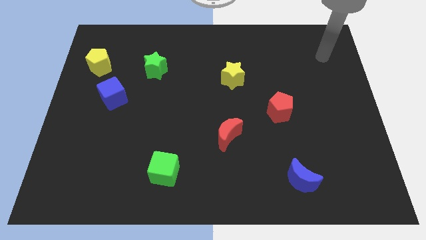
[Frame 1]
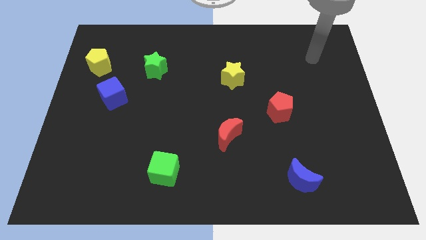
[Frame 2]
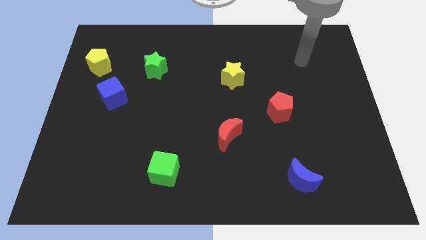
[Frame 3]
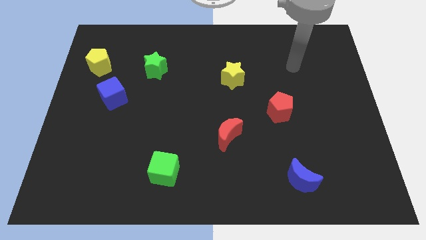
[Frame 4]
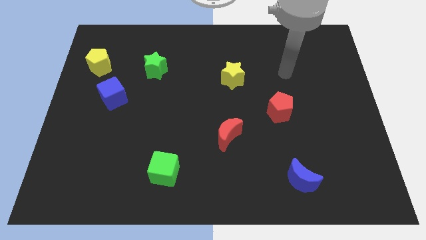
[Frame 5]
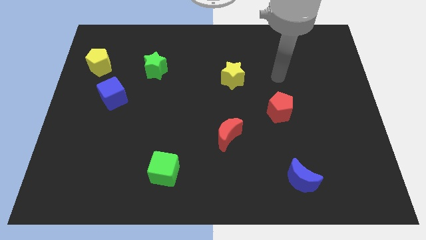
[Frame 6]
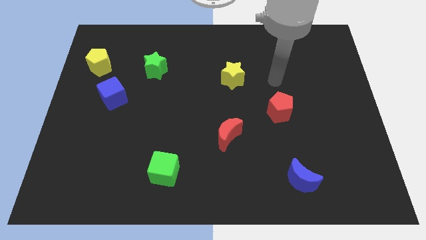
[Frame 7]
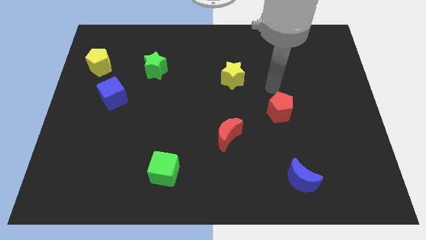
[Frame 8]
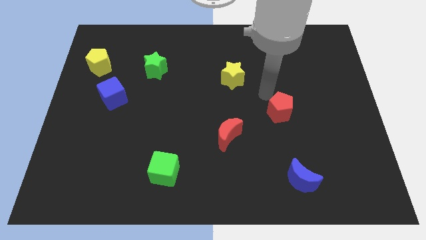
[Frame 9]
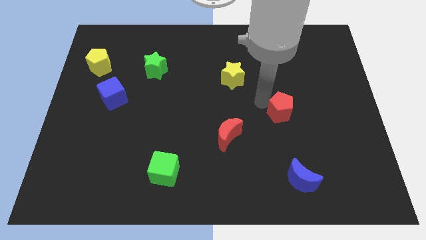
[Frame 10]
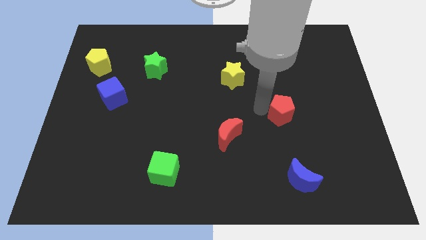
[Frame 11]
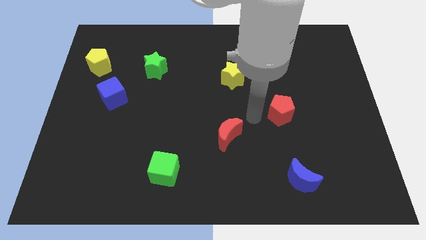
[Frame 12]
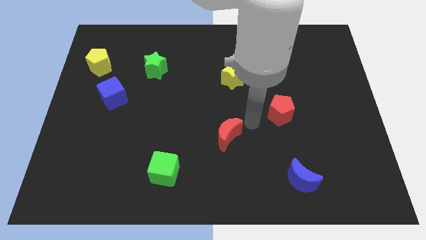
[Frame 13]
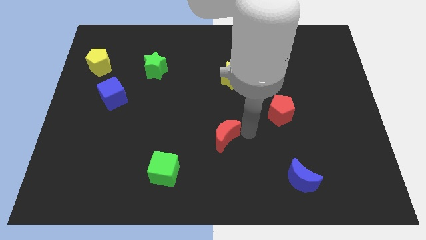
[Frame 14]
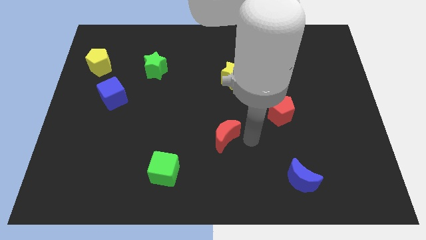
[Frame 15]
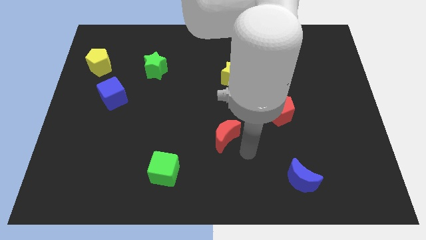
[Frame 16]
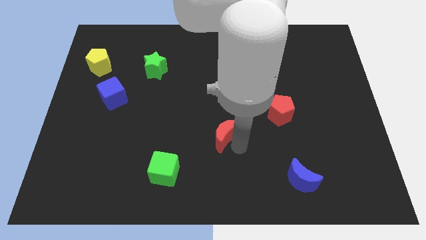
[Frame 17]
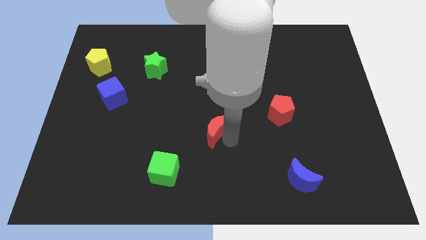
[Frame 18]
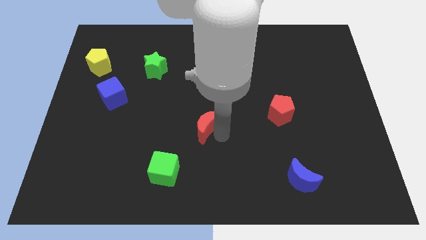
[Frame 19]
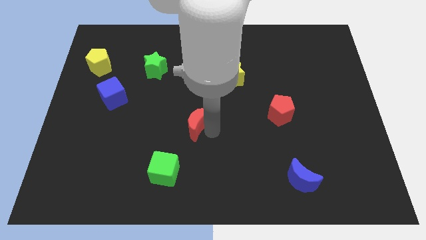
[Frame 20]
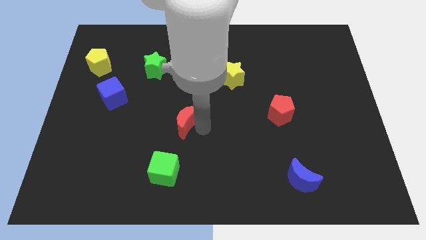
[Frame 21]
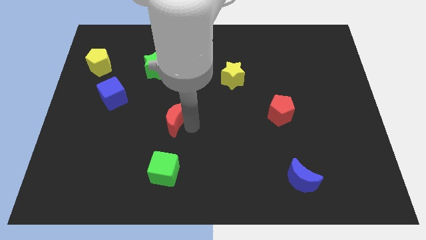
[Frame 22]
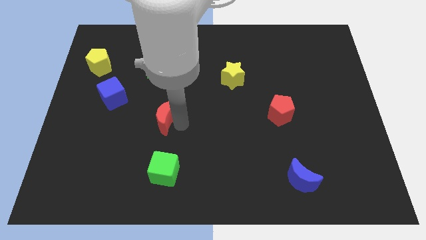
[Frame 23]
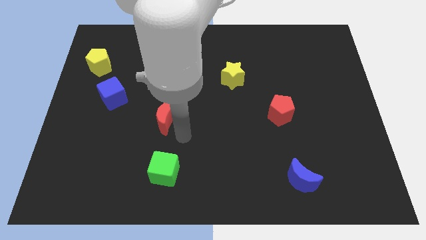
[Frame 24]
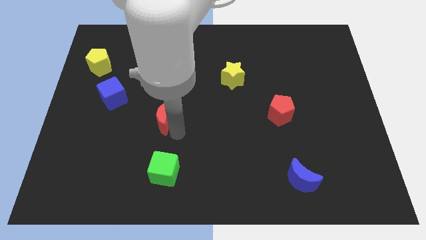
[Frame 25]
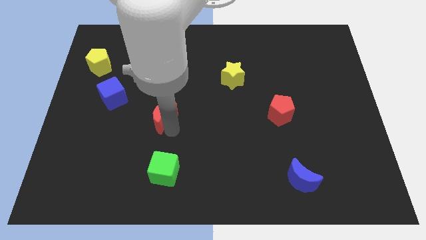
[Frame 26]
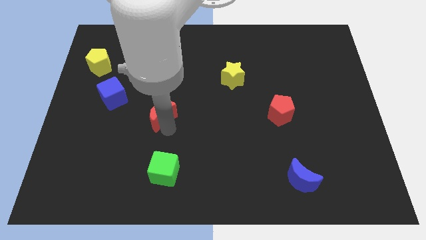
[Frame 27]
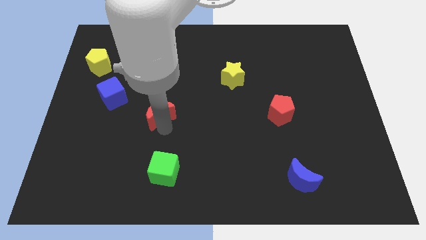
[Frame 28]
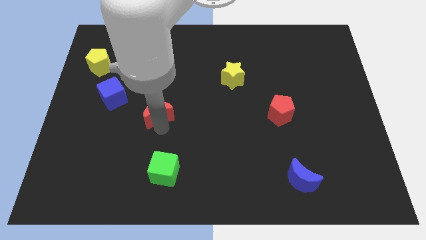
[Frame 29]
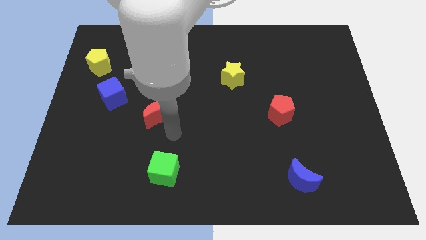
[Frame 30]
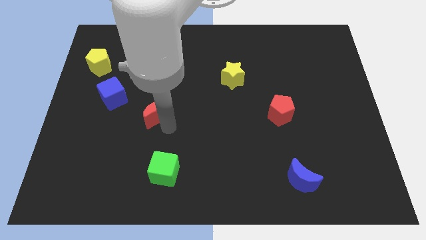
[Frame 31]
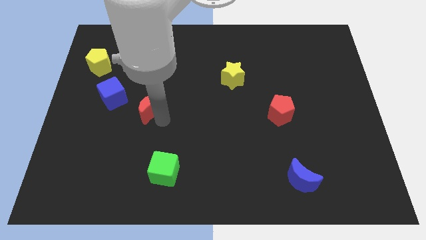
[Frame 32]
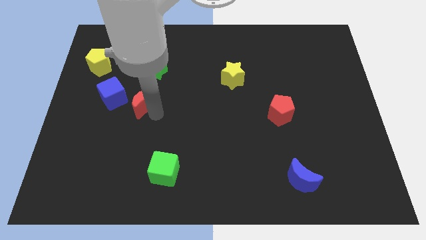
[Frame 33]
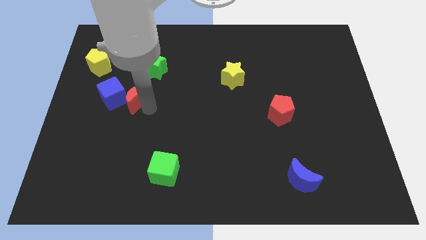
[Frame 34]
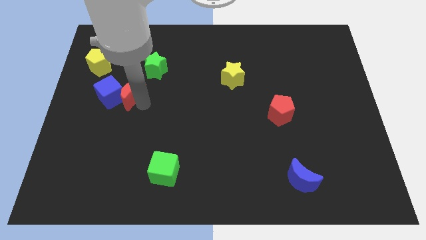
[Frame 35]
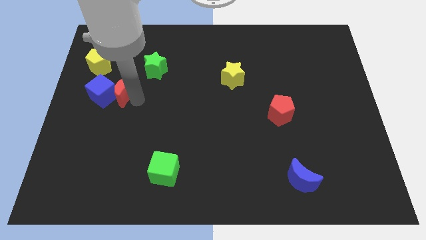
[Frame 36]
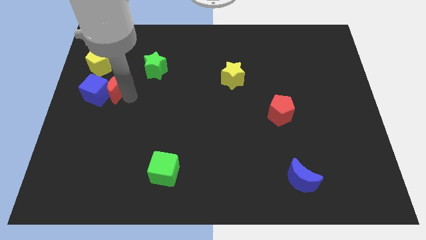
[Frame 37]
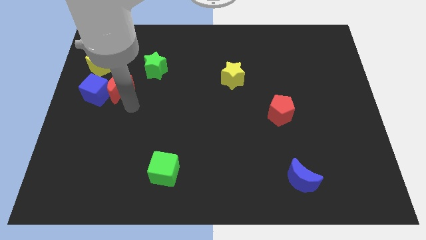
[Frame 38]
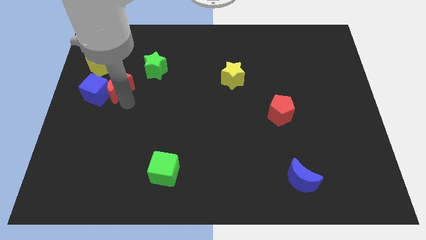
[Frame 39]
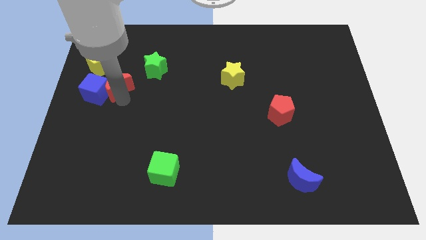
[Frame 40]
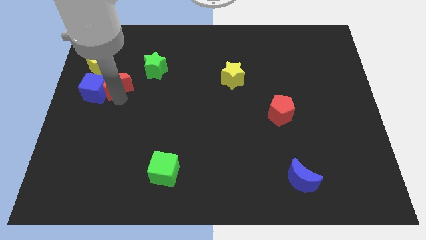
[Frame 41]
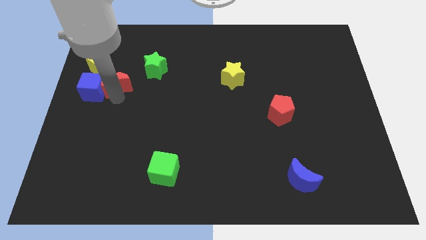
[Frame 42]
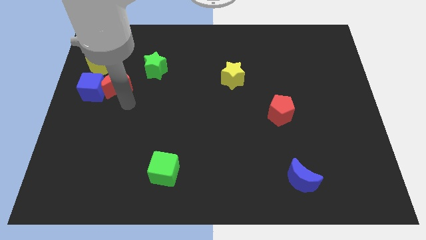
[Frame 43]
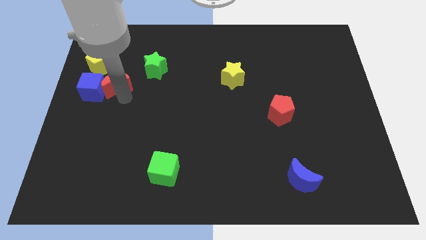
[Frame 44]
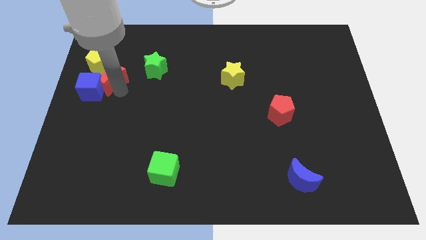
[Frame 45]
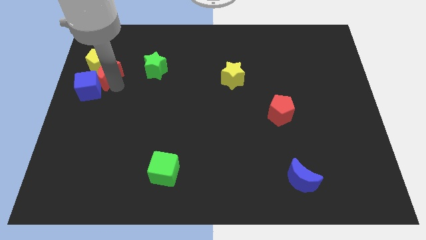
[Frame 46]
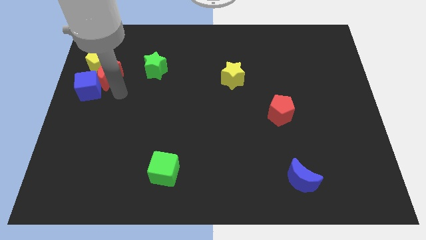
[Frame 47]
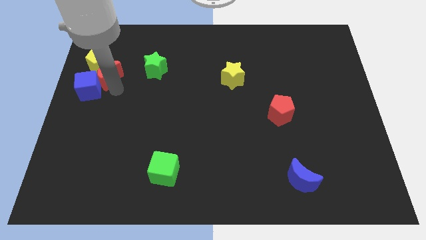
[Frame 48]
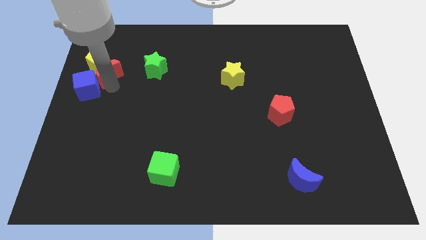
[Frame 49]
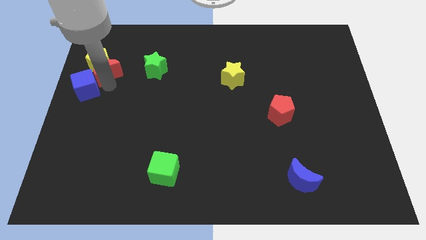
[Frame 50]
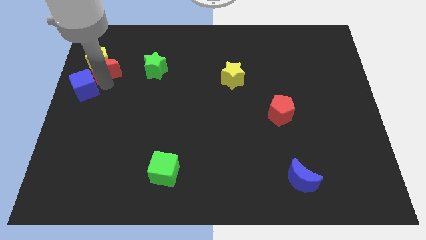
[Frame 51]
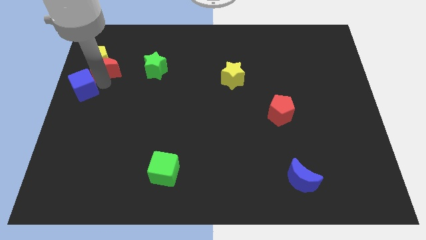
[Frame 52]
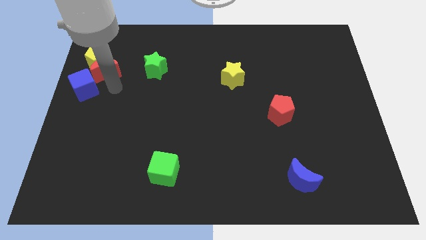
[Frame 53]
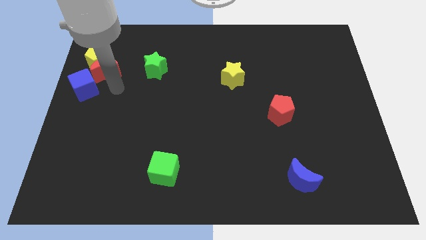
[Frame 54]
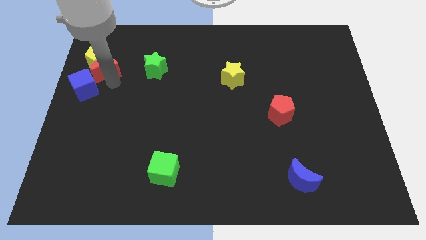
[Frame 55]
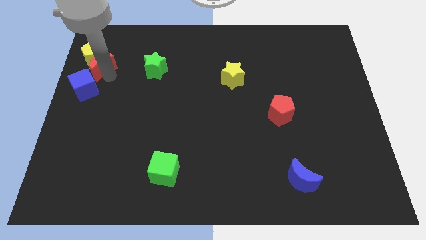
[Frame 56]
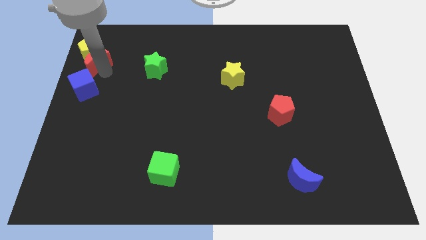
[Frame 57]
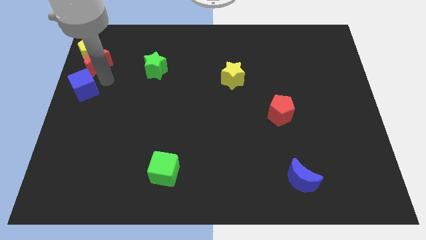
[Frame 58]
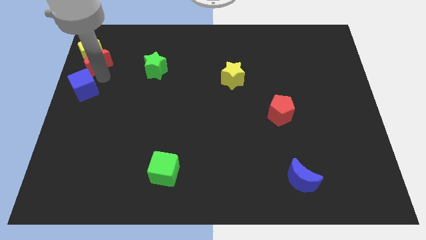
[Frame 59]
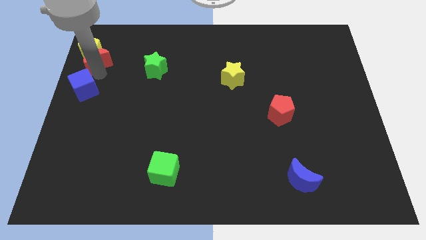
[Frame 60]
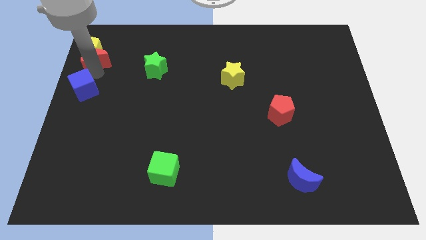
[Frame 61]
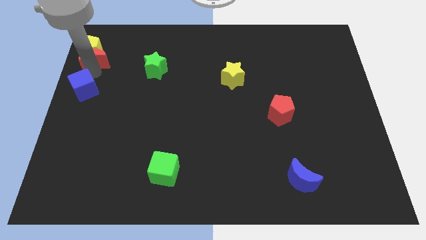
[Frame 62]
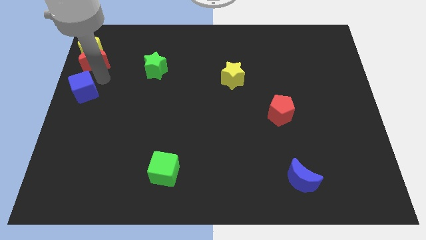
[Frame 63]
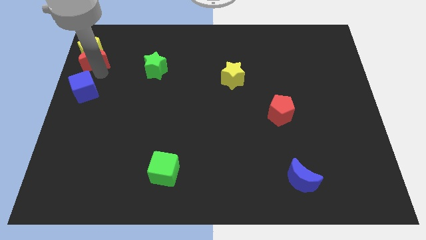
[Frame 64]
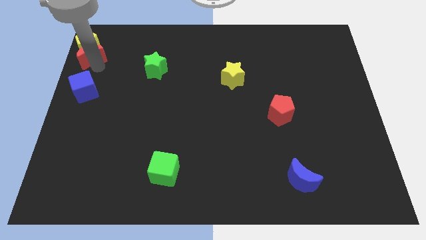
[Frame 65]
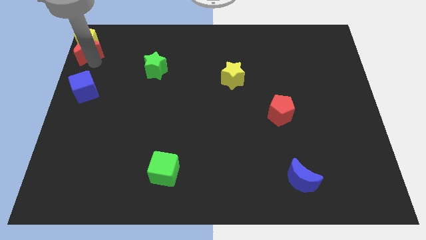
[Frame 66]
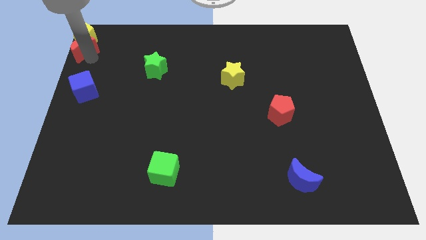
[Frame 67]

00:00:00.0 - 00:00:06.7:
put the red moon to the top left
